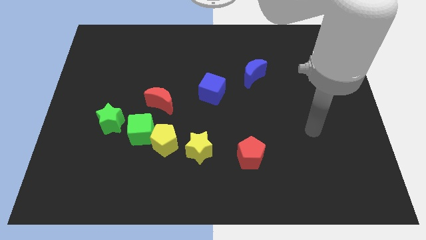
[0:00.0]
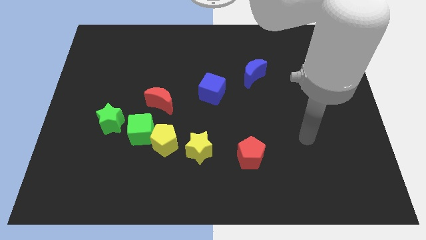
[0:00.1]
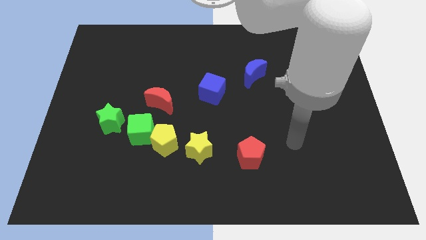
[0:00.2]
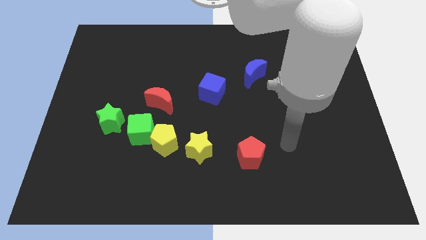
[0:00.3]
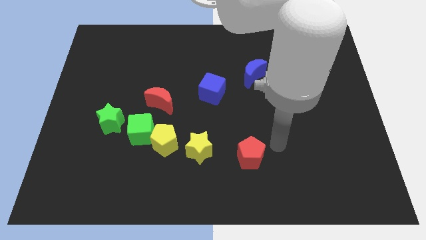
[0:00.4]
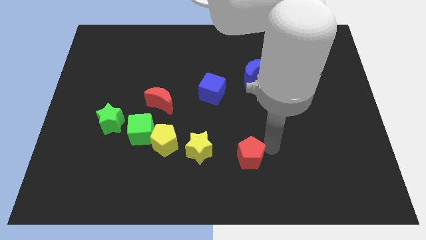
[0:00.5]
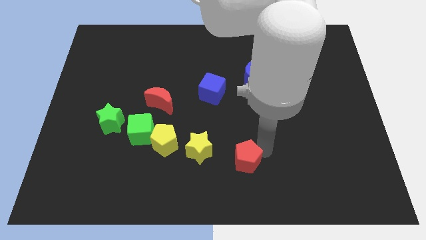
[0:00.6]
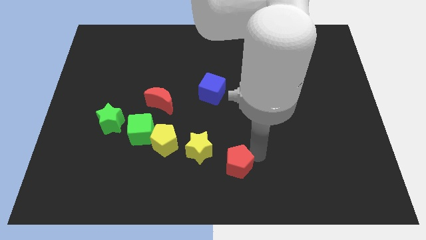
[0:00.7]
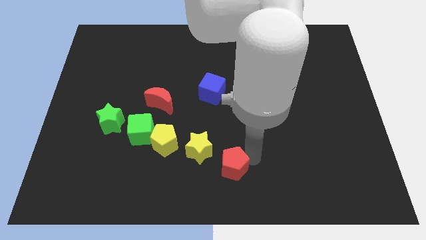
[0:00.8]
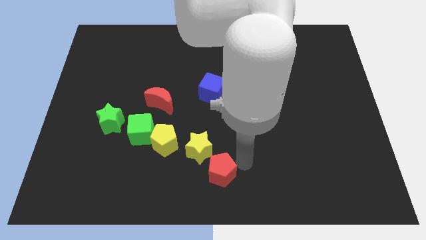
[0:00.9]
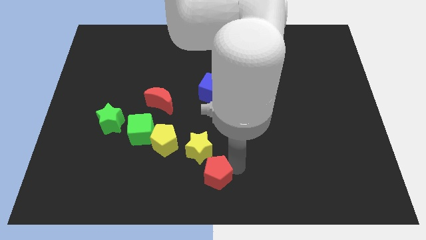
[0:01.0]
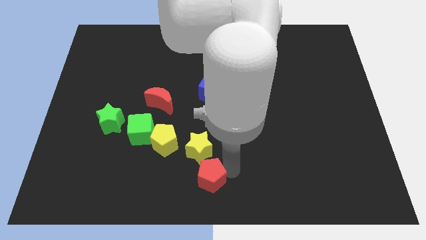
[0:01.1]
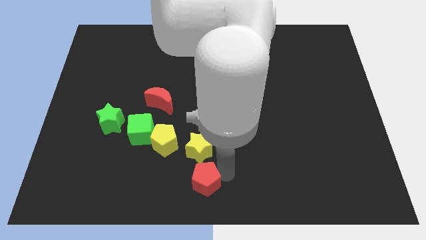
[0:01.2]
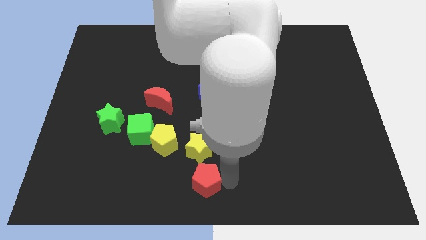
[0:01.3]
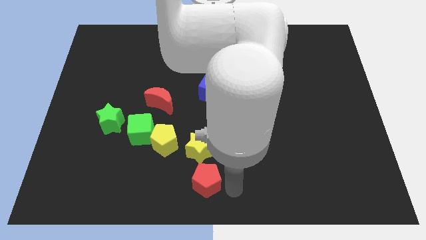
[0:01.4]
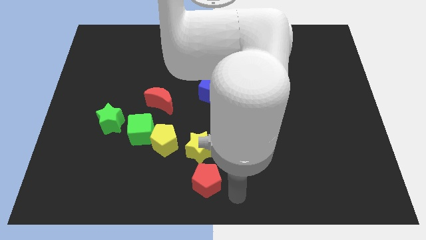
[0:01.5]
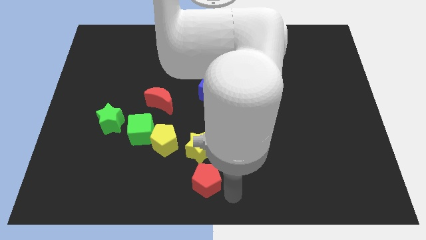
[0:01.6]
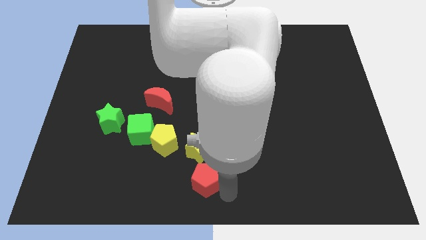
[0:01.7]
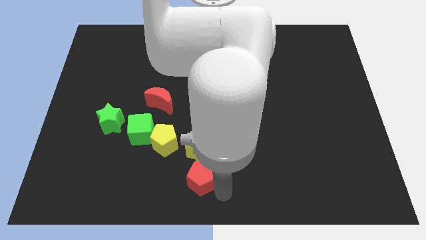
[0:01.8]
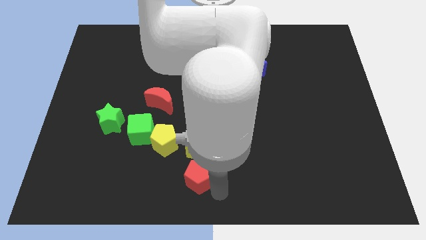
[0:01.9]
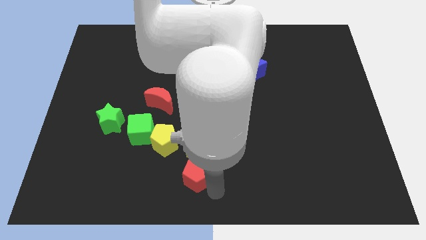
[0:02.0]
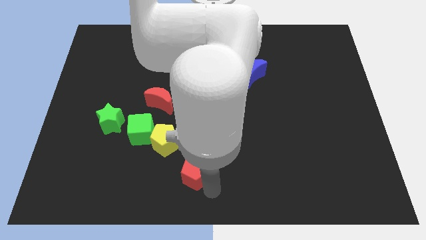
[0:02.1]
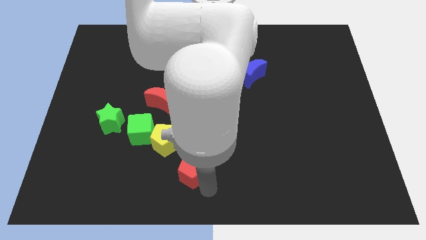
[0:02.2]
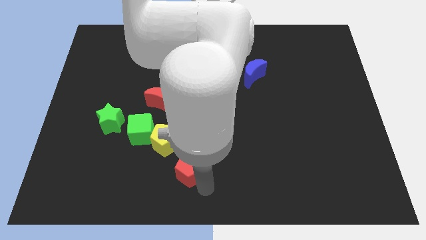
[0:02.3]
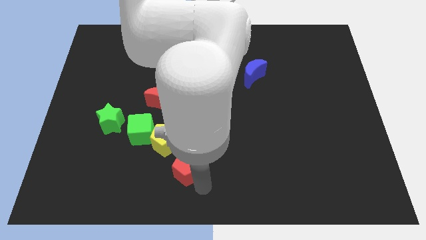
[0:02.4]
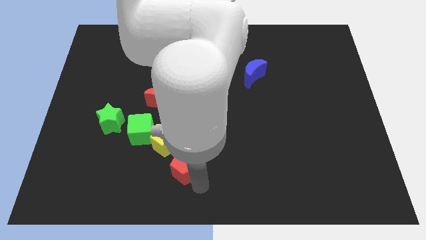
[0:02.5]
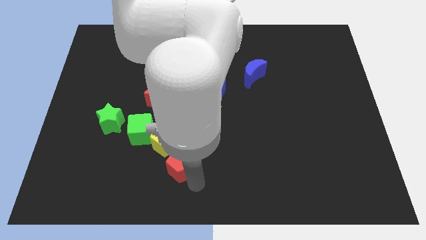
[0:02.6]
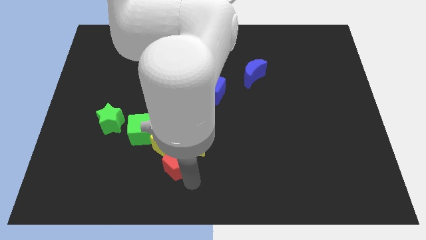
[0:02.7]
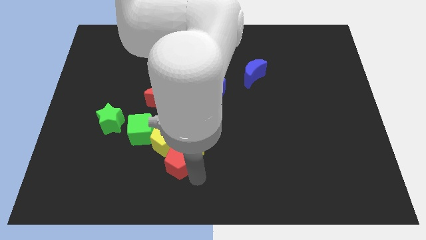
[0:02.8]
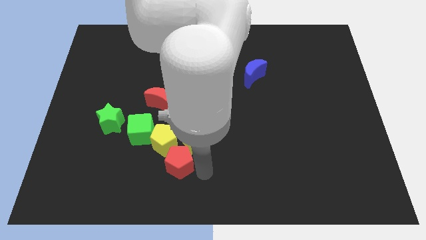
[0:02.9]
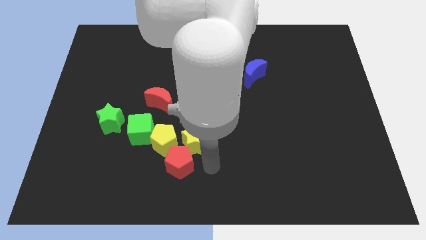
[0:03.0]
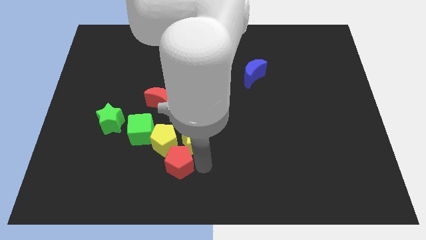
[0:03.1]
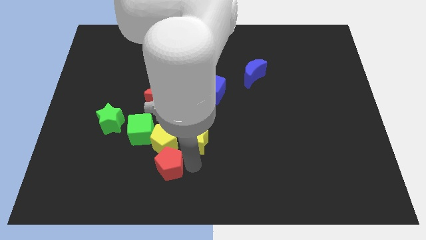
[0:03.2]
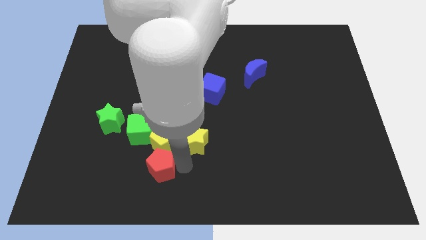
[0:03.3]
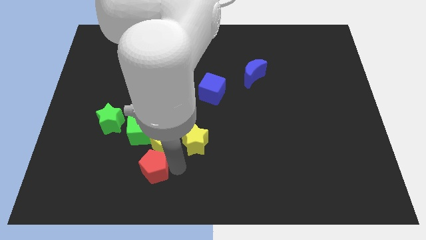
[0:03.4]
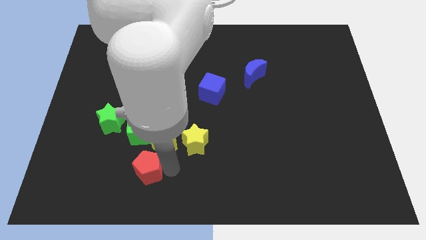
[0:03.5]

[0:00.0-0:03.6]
slide the red pentagon to the left

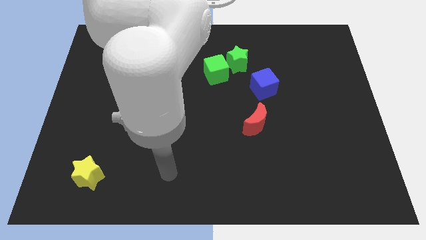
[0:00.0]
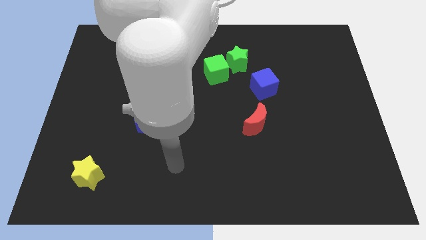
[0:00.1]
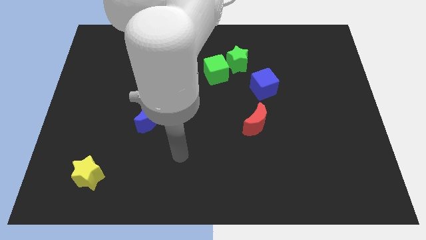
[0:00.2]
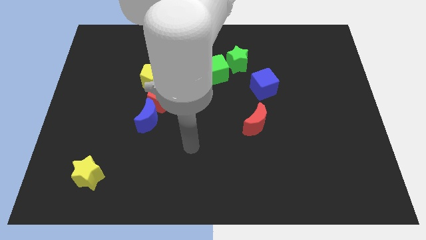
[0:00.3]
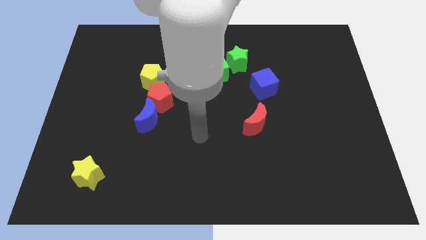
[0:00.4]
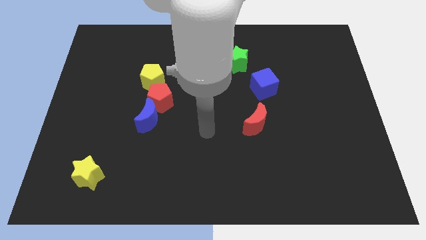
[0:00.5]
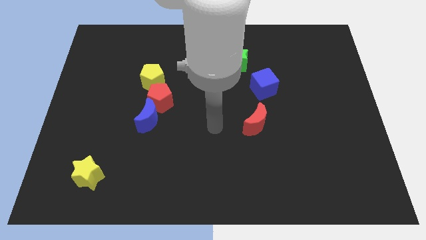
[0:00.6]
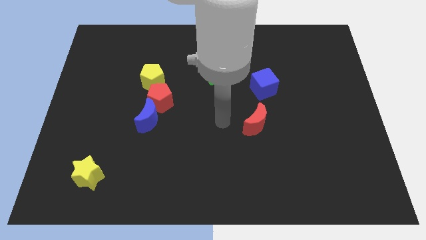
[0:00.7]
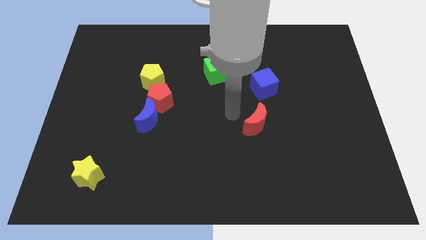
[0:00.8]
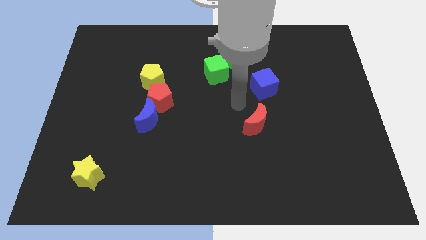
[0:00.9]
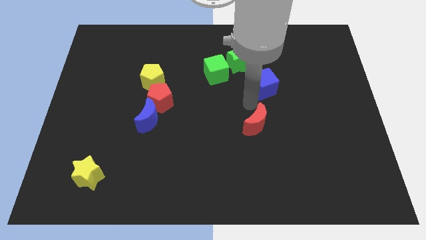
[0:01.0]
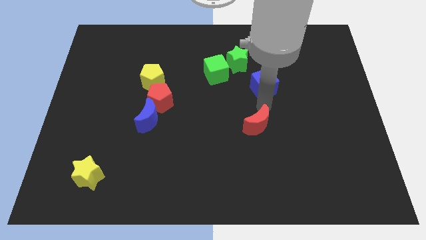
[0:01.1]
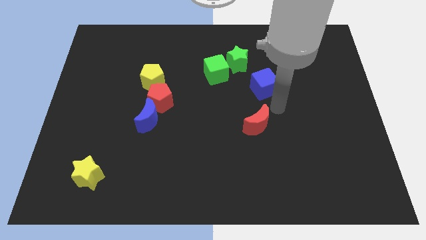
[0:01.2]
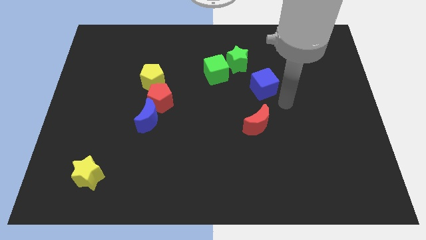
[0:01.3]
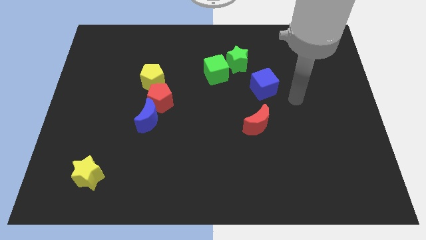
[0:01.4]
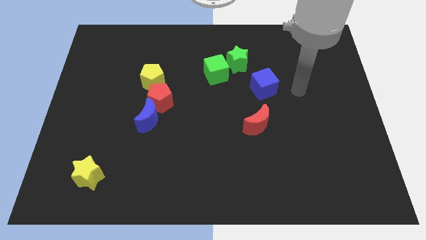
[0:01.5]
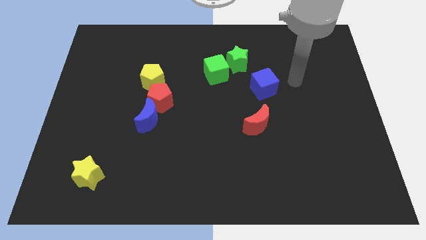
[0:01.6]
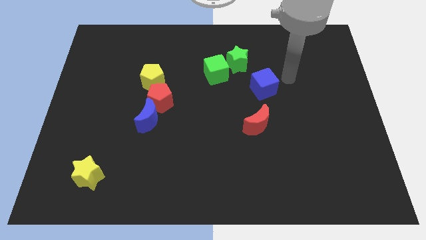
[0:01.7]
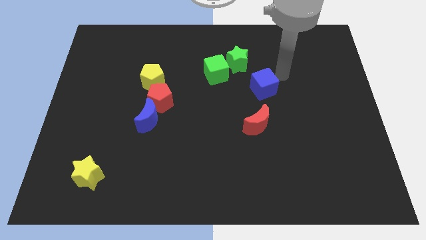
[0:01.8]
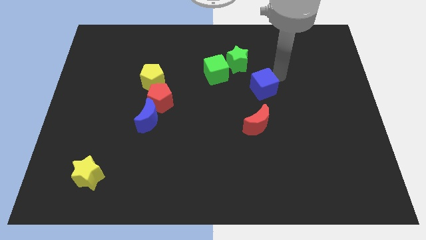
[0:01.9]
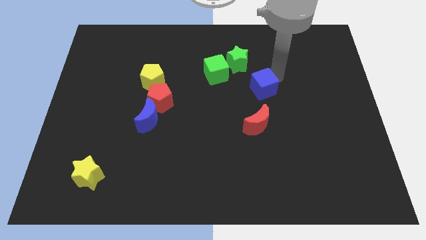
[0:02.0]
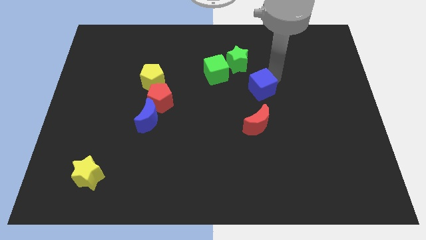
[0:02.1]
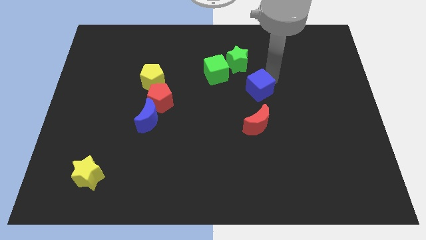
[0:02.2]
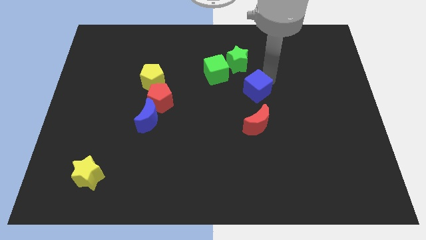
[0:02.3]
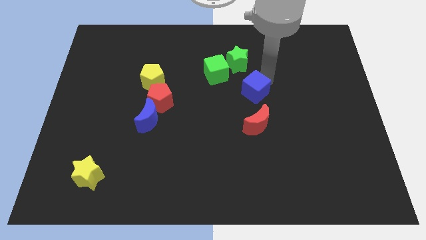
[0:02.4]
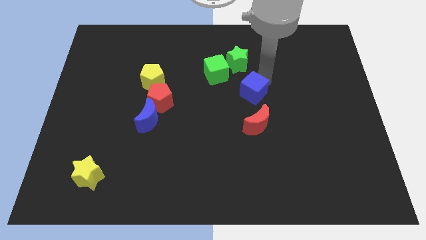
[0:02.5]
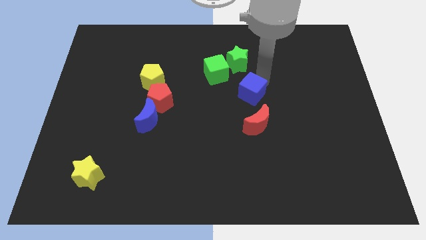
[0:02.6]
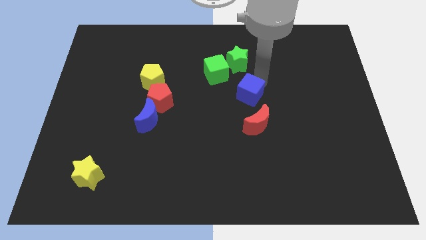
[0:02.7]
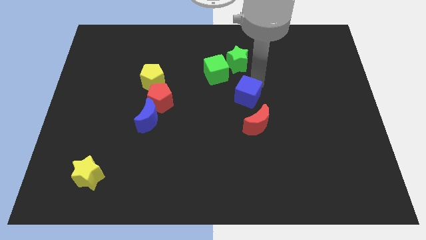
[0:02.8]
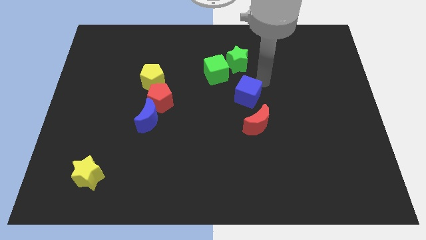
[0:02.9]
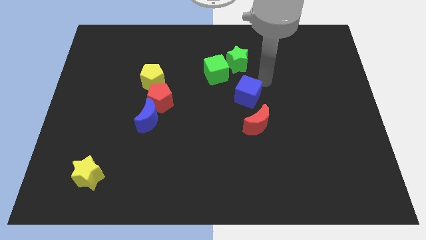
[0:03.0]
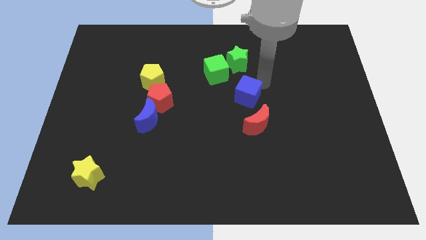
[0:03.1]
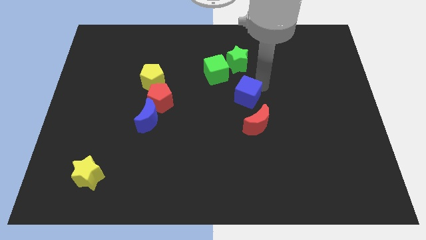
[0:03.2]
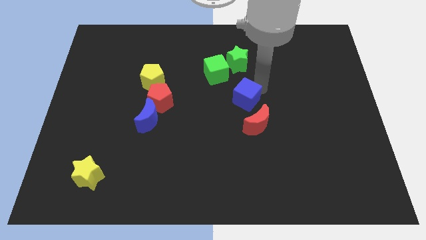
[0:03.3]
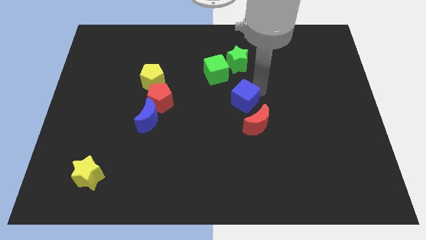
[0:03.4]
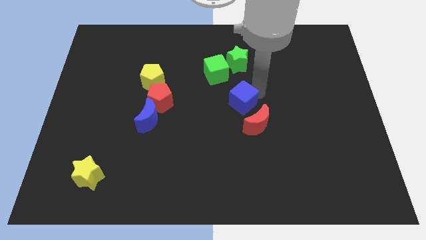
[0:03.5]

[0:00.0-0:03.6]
push the blue cube slightly diagonally downwards and to the left

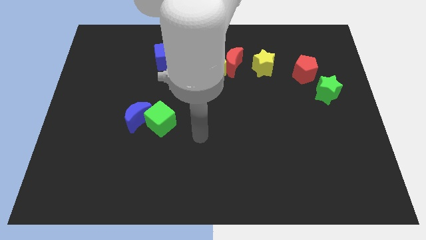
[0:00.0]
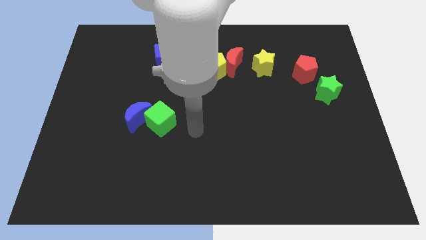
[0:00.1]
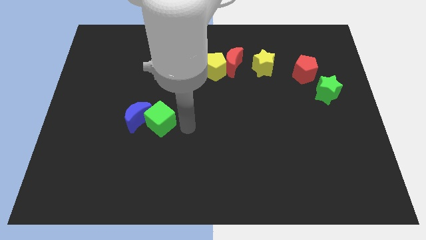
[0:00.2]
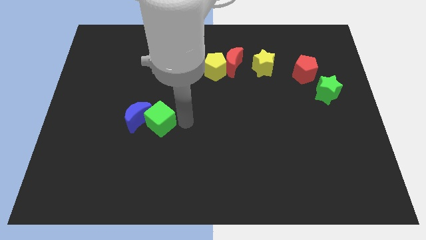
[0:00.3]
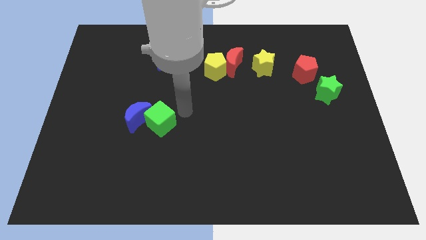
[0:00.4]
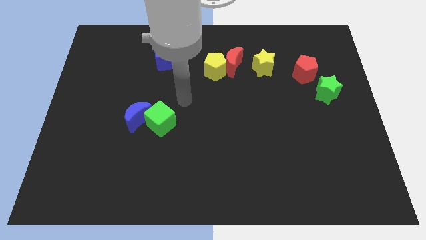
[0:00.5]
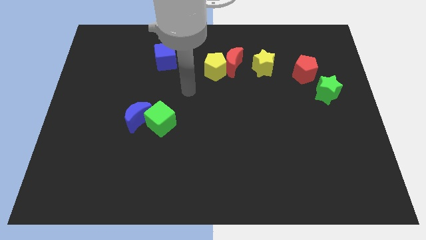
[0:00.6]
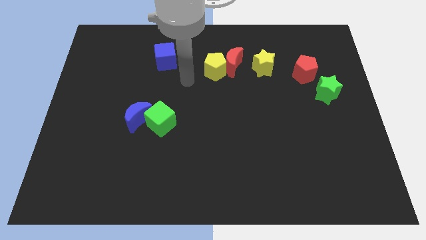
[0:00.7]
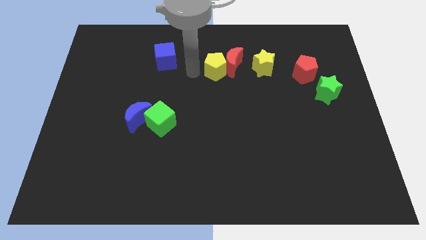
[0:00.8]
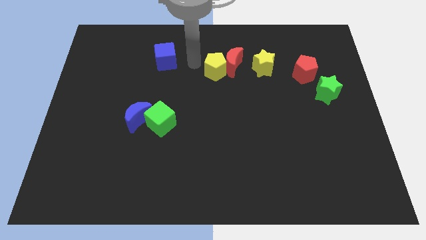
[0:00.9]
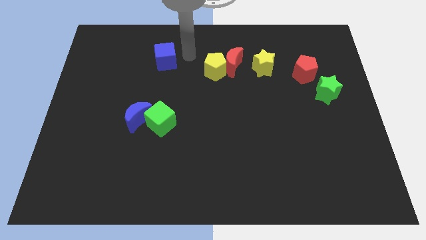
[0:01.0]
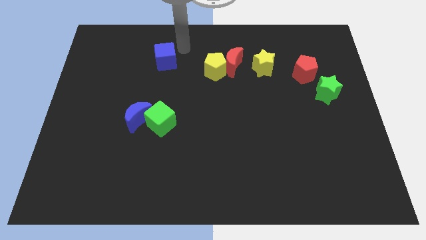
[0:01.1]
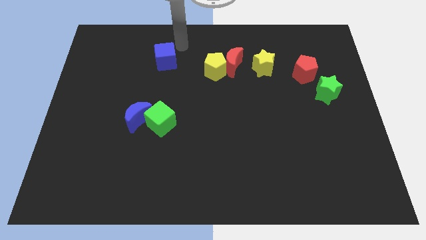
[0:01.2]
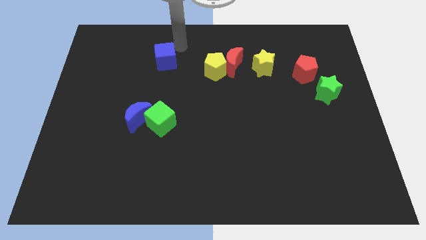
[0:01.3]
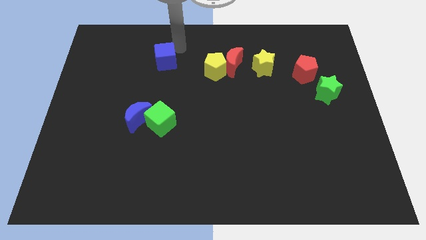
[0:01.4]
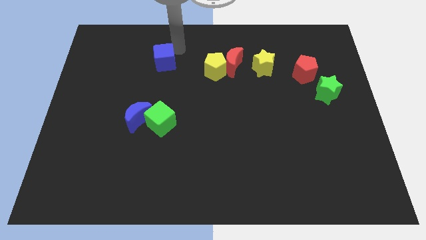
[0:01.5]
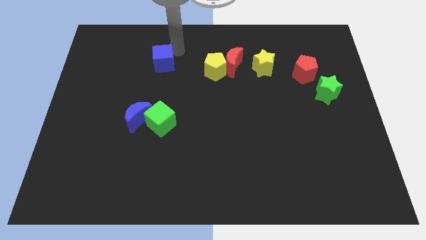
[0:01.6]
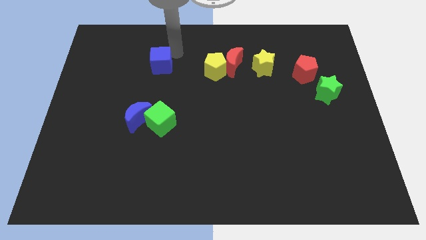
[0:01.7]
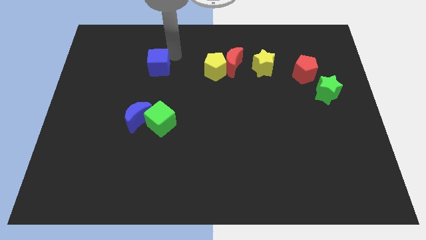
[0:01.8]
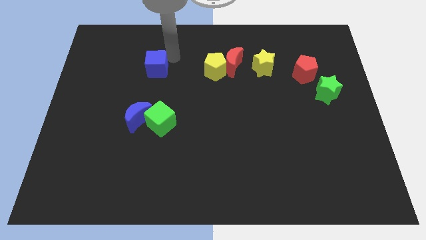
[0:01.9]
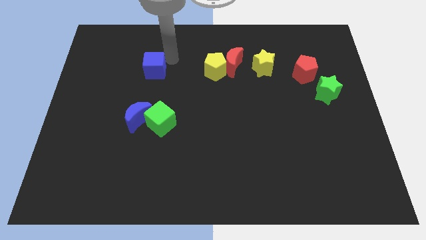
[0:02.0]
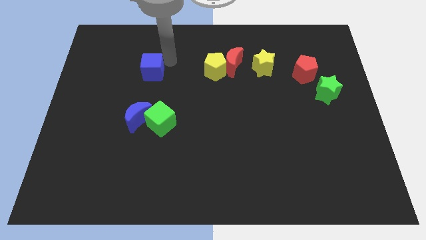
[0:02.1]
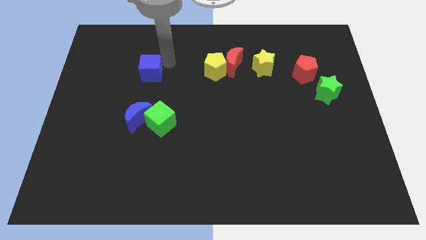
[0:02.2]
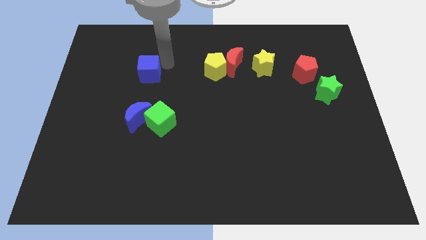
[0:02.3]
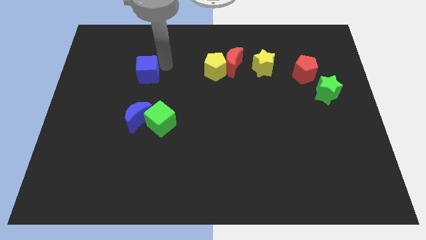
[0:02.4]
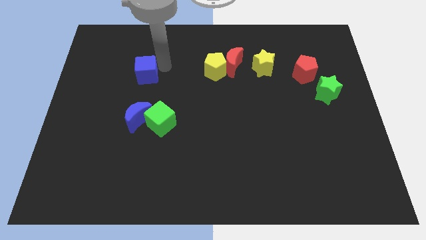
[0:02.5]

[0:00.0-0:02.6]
push the blue cube downwards and left diagonally a little
